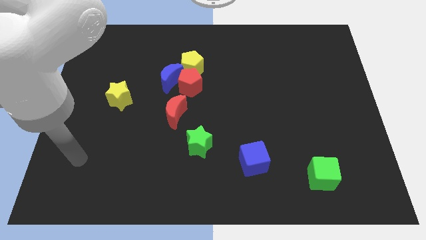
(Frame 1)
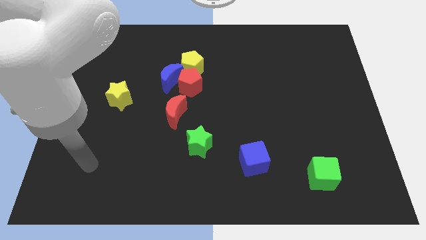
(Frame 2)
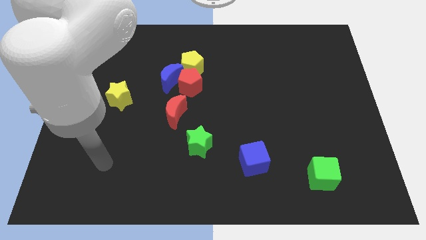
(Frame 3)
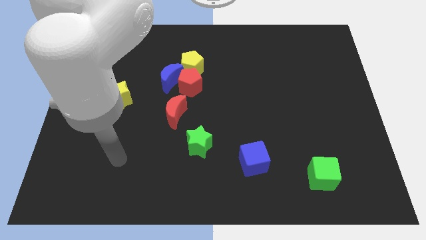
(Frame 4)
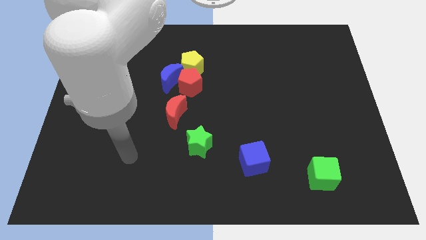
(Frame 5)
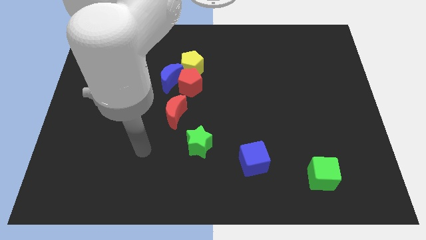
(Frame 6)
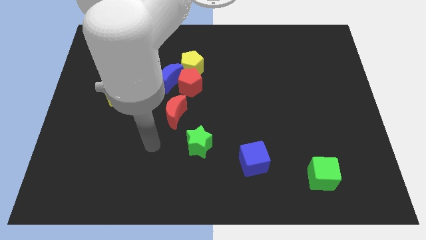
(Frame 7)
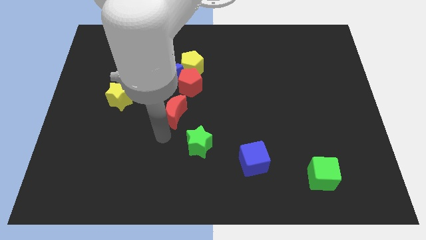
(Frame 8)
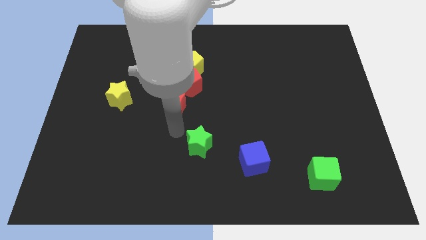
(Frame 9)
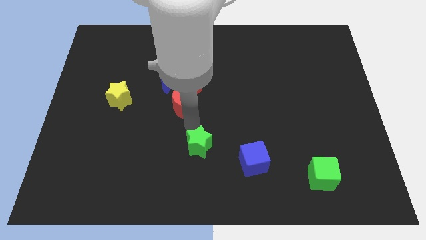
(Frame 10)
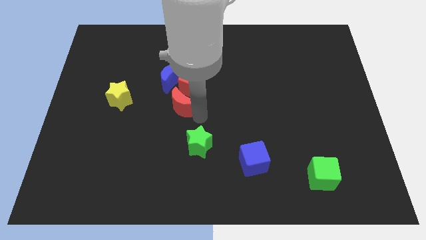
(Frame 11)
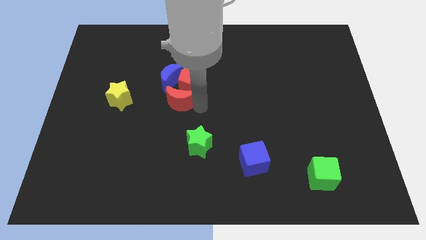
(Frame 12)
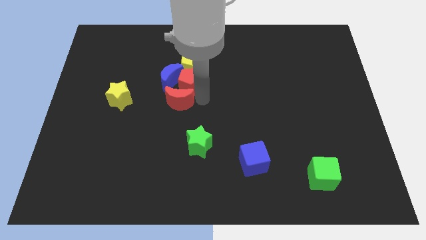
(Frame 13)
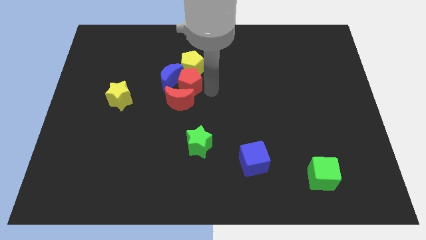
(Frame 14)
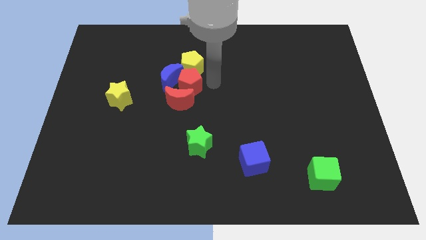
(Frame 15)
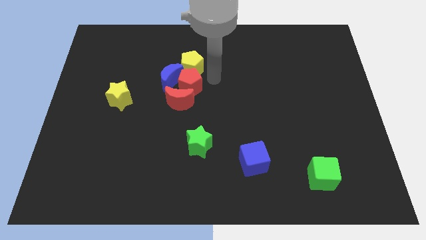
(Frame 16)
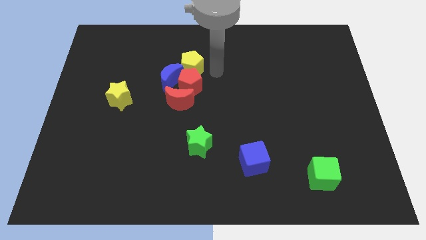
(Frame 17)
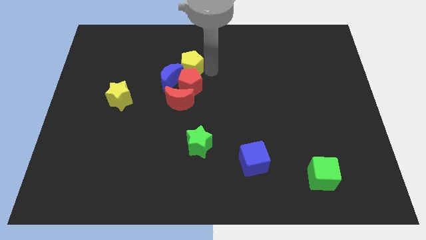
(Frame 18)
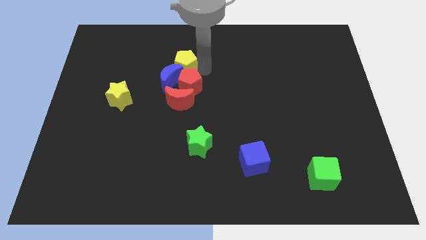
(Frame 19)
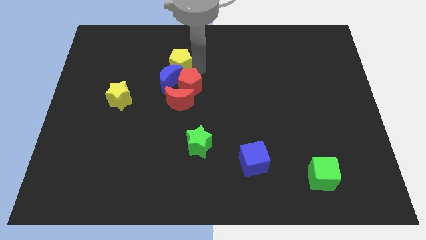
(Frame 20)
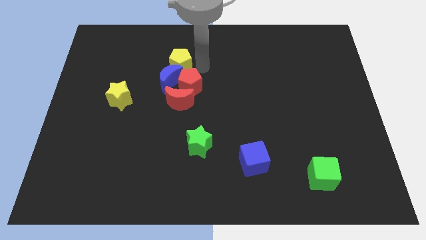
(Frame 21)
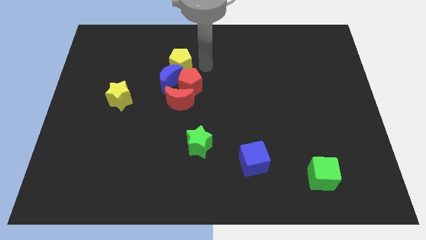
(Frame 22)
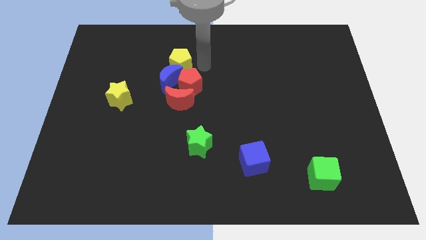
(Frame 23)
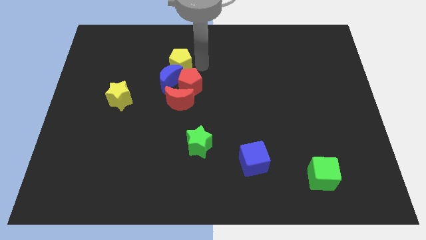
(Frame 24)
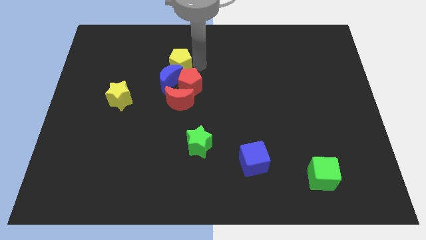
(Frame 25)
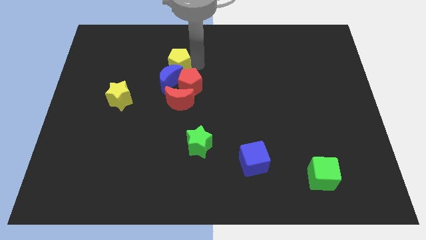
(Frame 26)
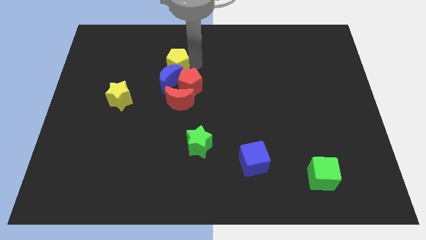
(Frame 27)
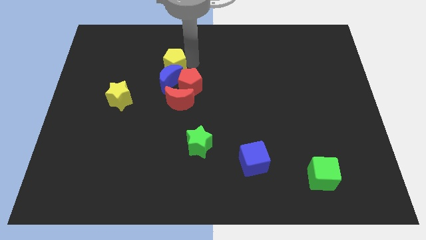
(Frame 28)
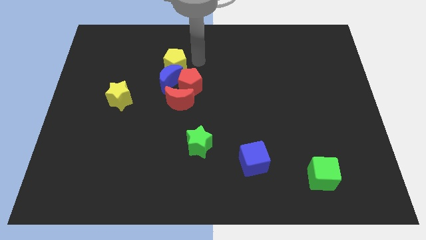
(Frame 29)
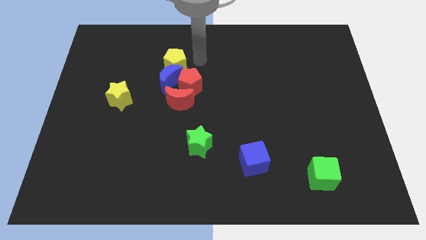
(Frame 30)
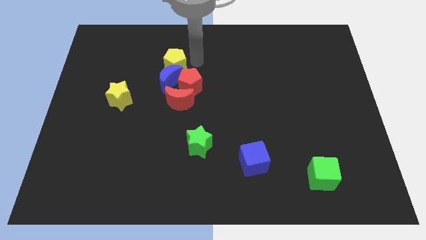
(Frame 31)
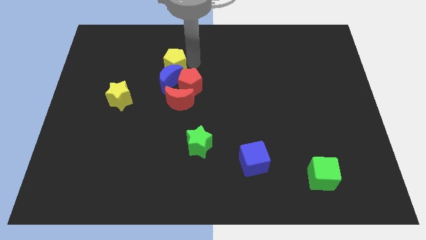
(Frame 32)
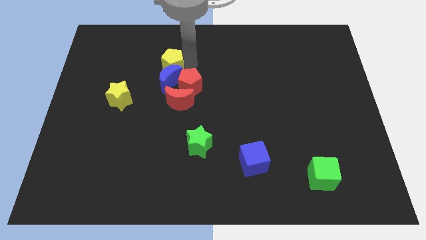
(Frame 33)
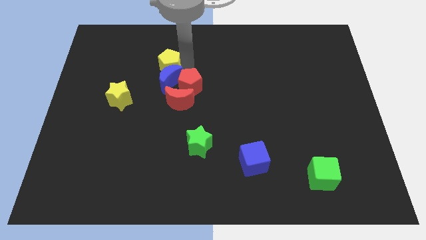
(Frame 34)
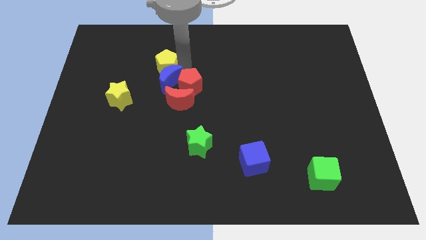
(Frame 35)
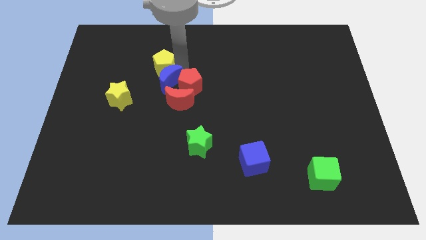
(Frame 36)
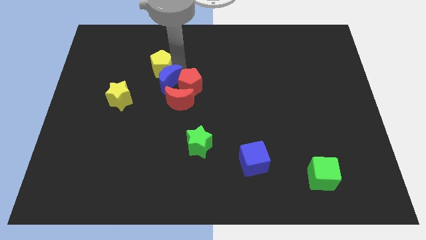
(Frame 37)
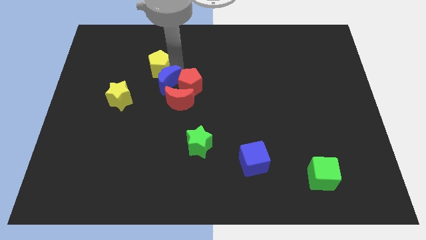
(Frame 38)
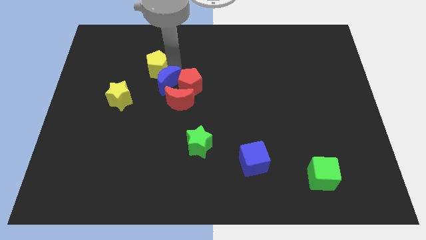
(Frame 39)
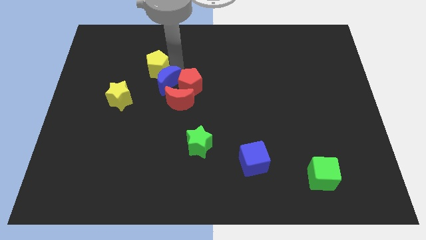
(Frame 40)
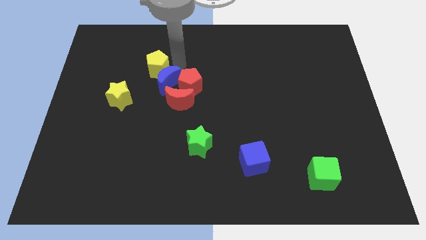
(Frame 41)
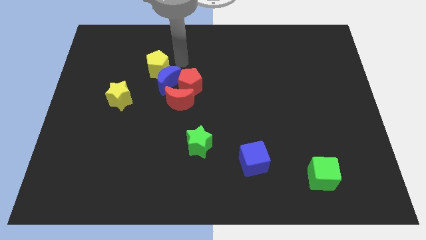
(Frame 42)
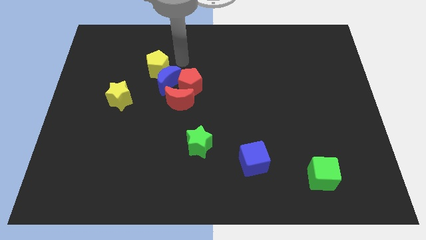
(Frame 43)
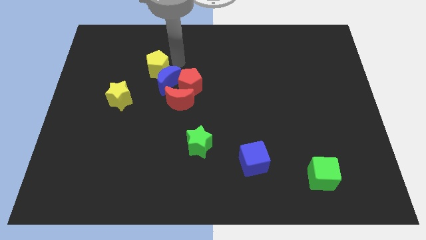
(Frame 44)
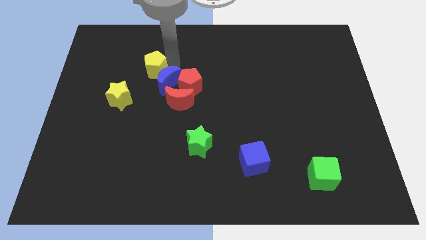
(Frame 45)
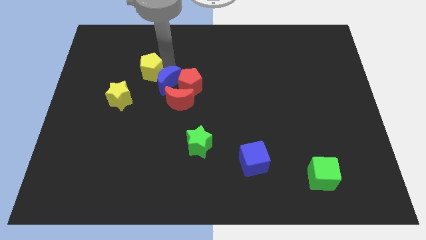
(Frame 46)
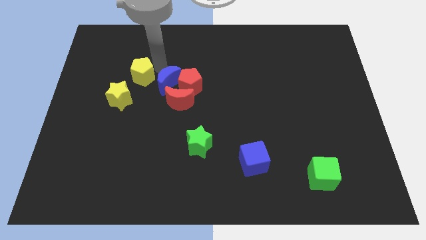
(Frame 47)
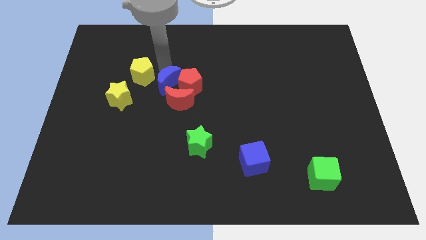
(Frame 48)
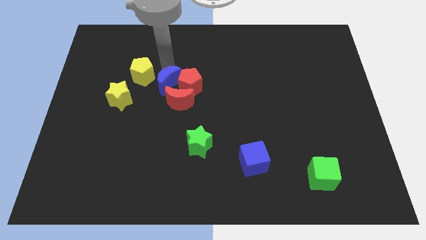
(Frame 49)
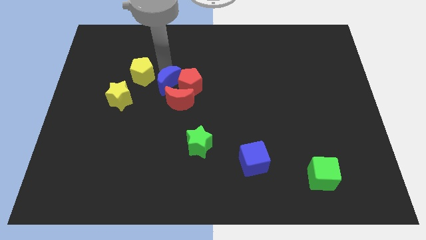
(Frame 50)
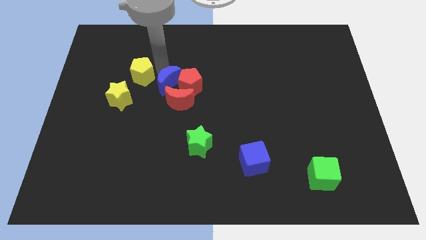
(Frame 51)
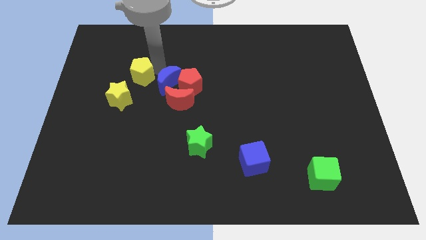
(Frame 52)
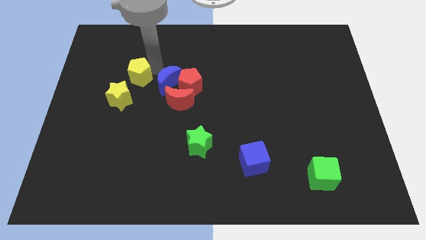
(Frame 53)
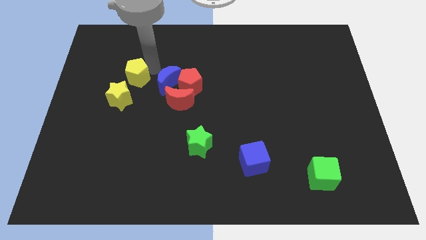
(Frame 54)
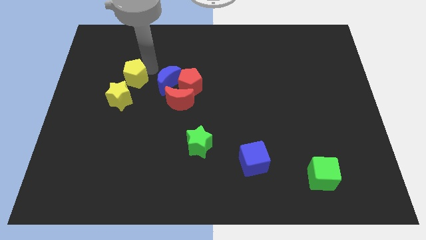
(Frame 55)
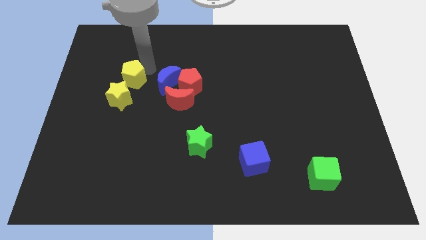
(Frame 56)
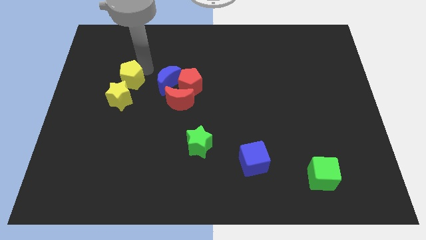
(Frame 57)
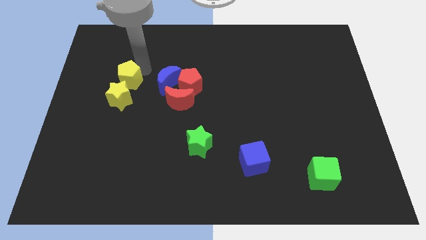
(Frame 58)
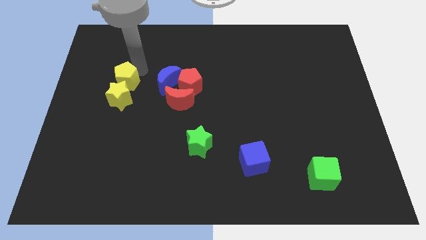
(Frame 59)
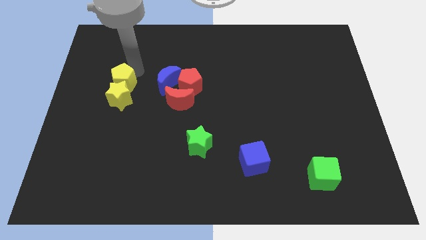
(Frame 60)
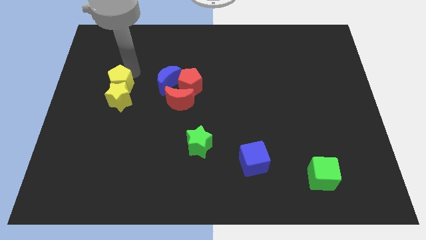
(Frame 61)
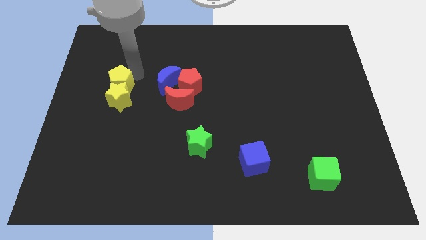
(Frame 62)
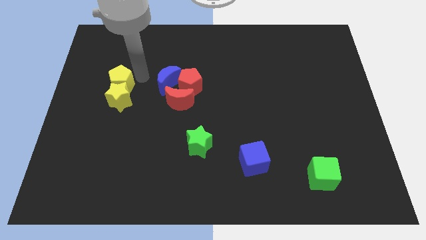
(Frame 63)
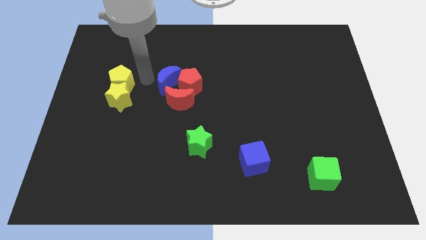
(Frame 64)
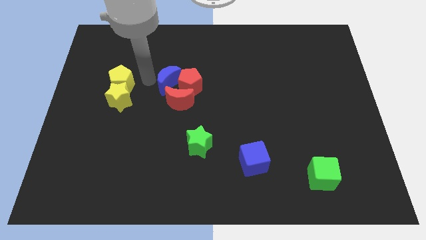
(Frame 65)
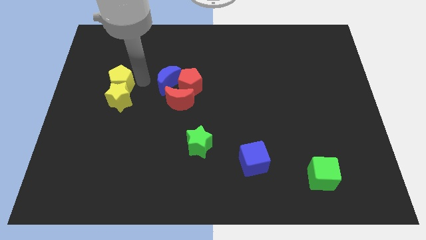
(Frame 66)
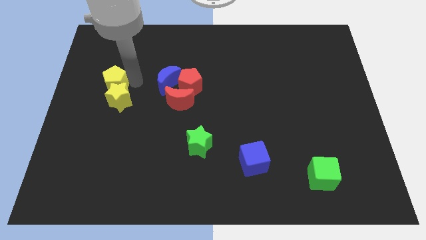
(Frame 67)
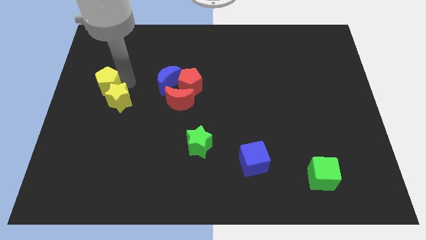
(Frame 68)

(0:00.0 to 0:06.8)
move the yellow pentagon to the left side
